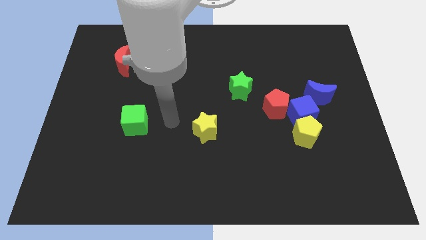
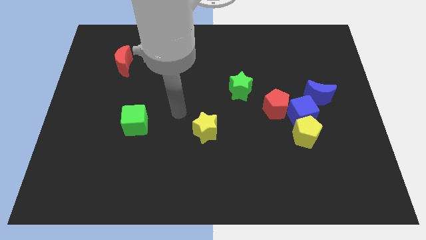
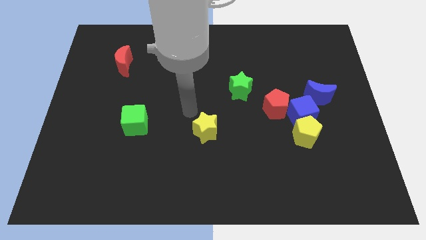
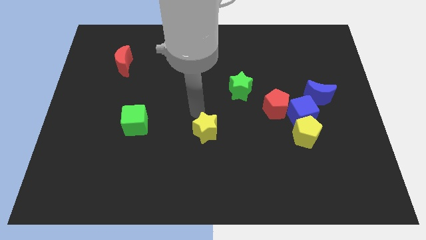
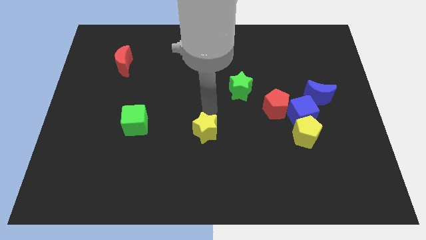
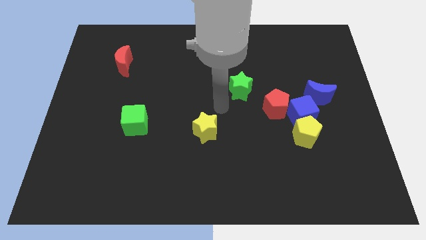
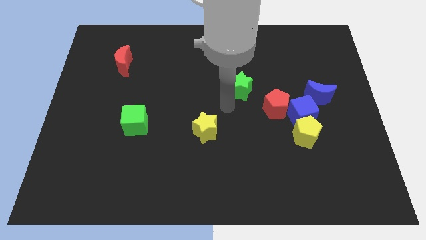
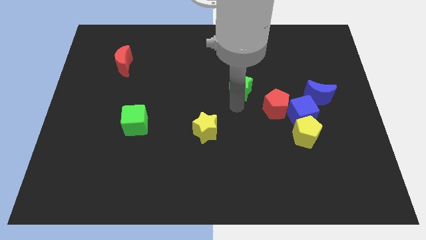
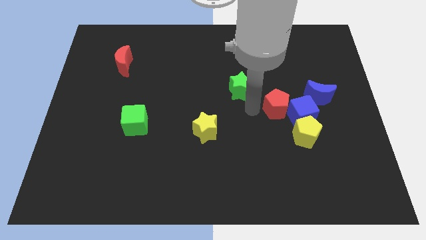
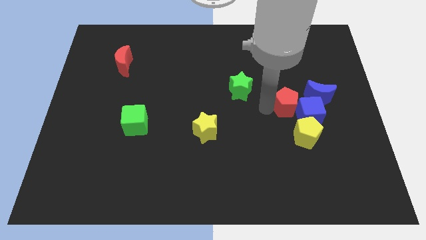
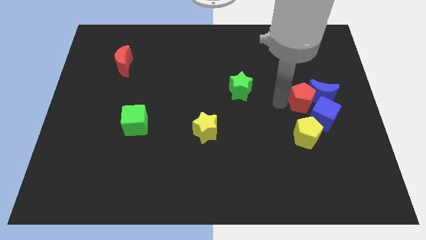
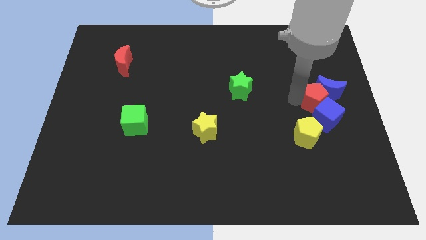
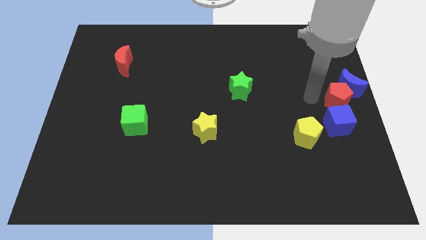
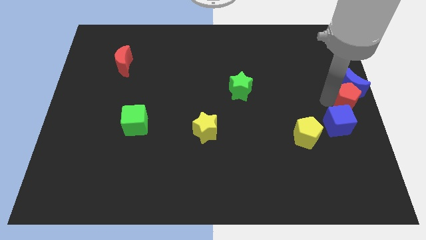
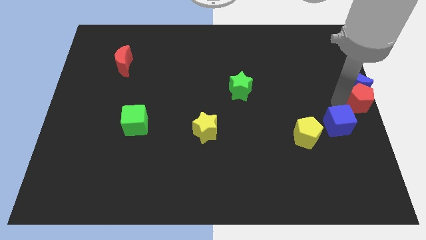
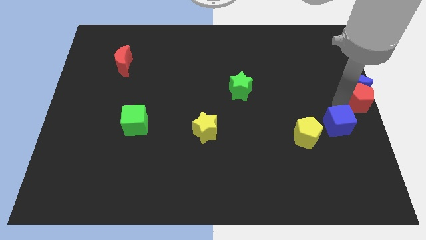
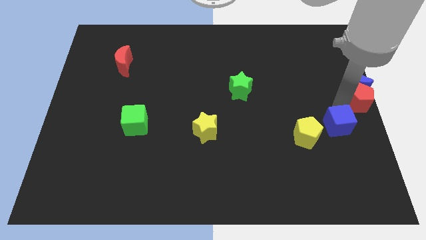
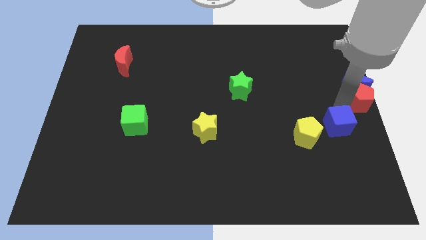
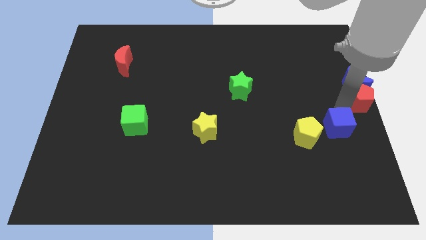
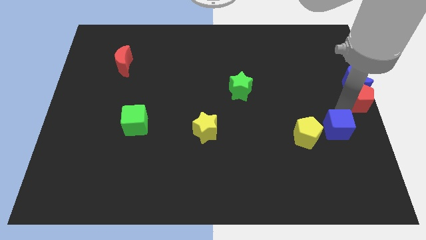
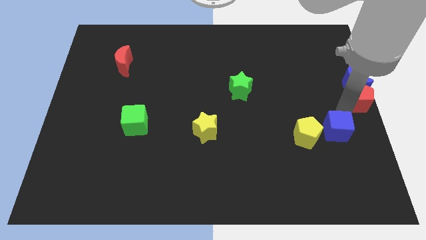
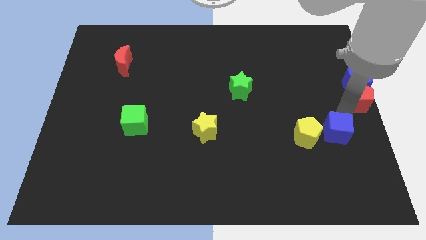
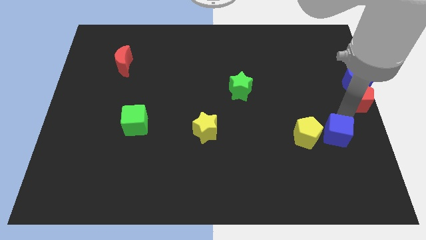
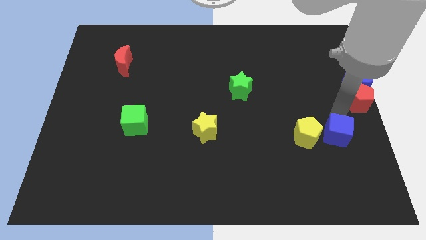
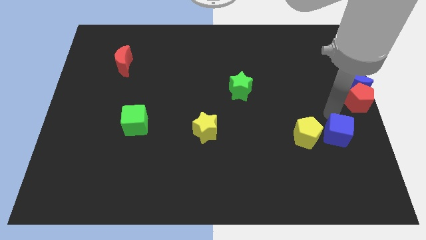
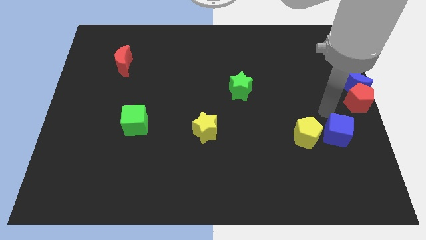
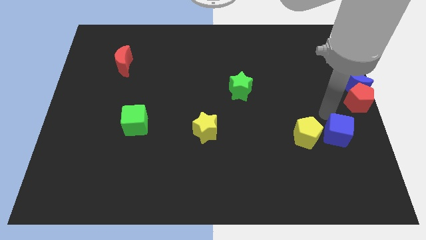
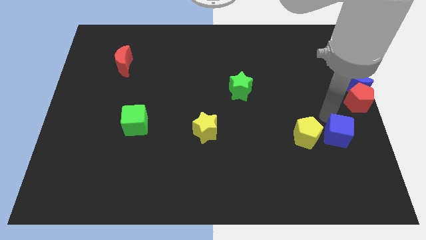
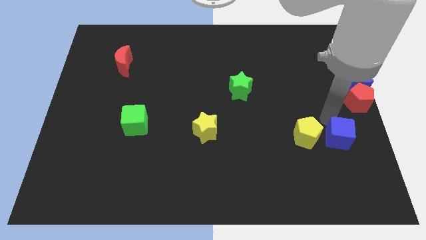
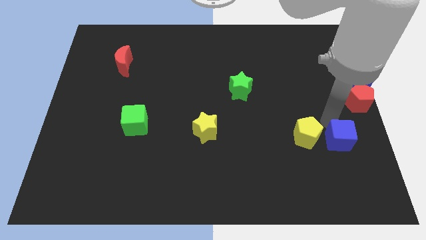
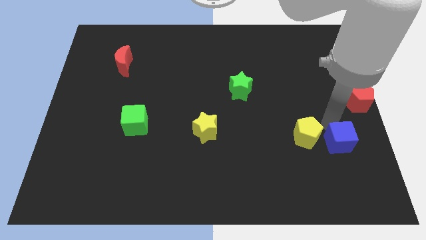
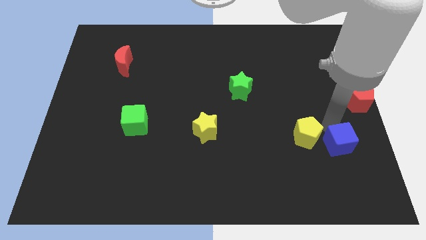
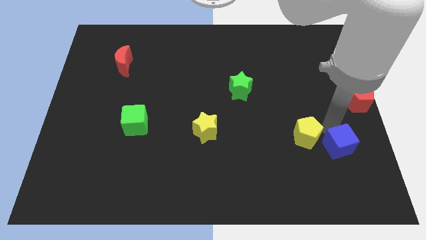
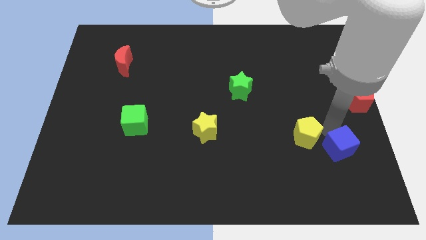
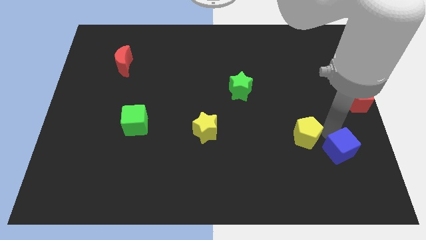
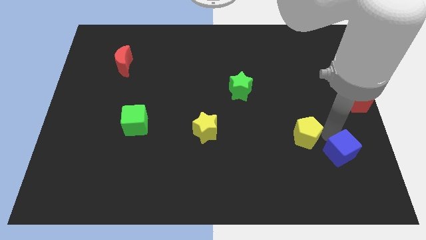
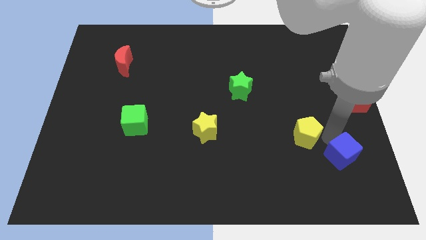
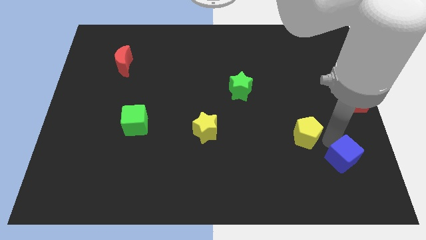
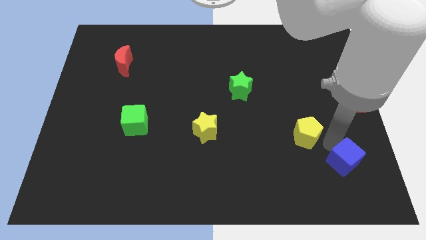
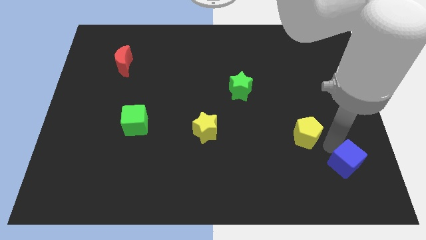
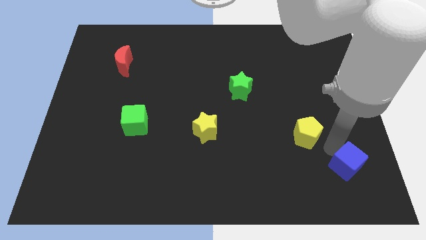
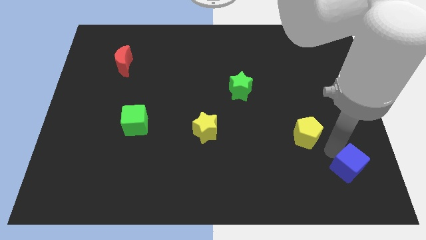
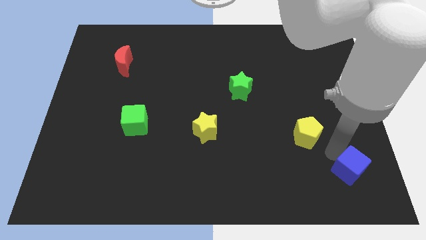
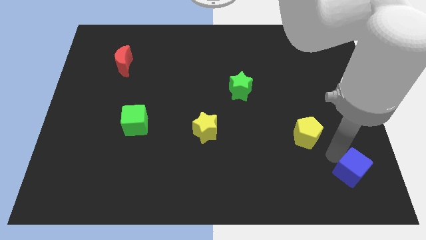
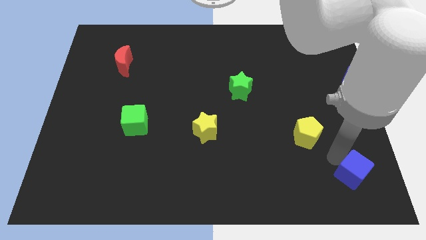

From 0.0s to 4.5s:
push the blue cube to the bottom right

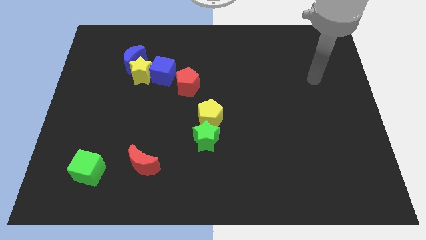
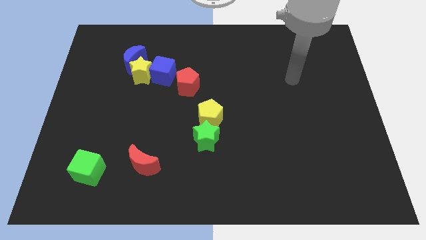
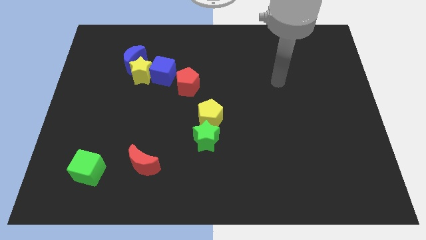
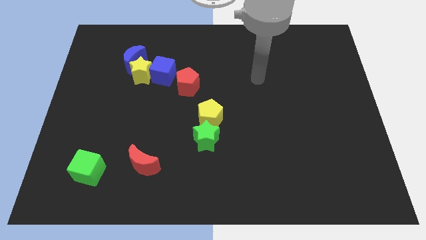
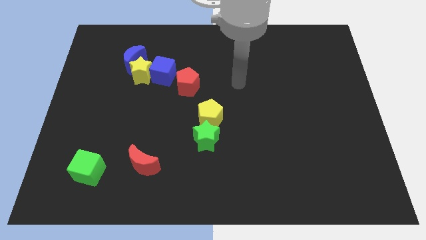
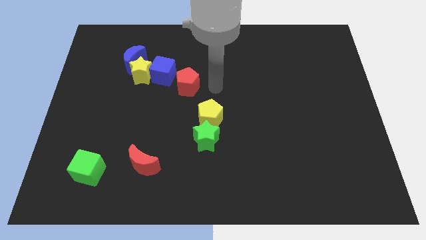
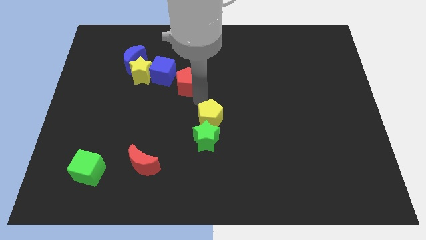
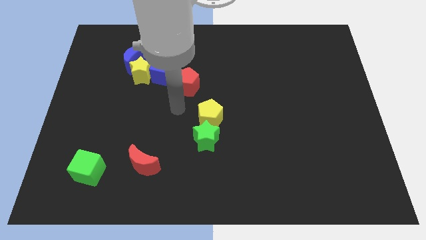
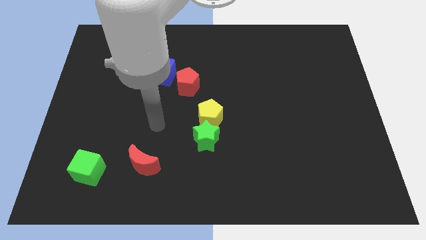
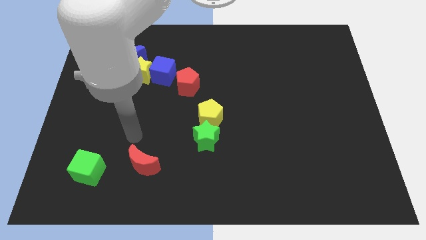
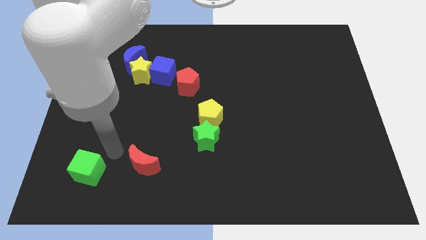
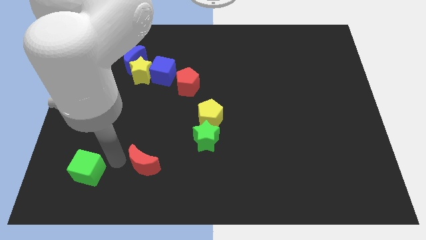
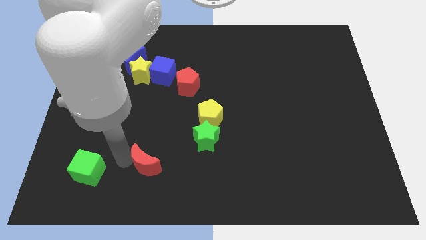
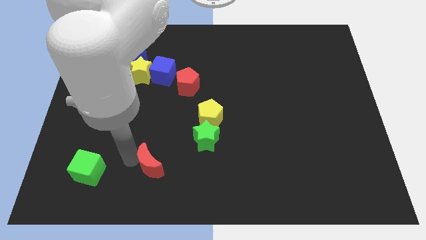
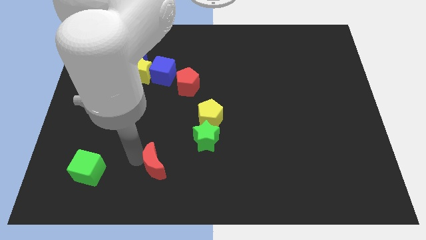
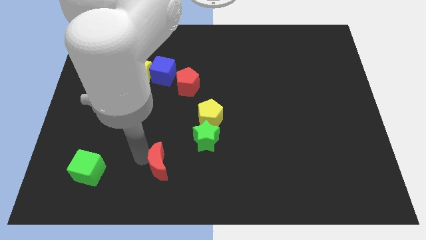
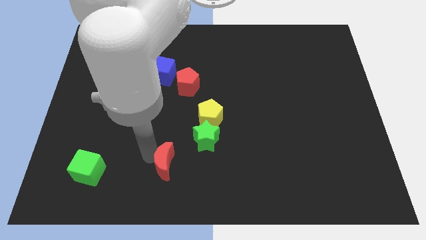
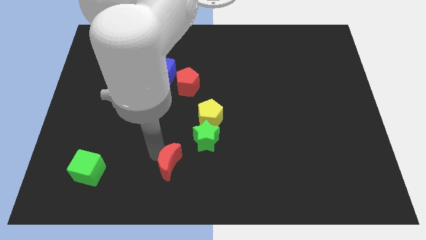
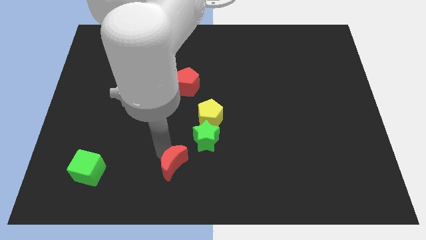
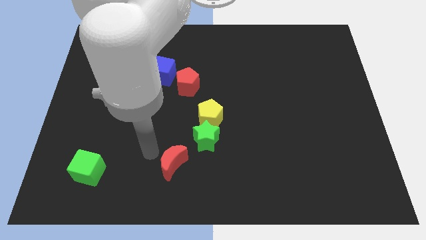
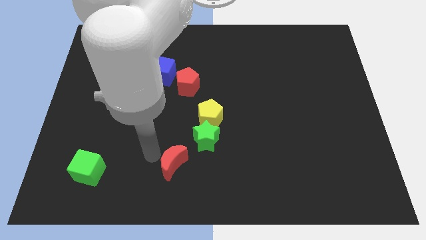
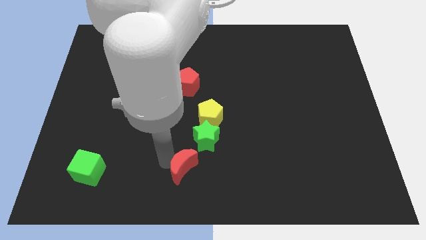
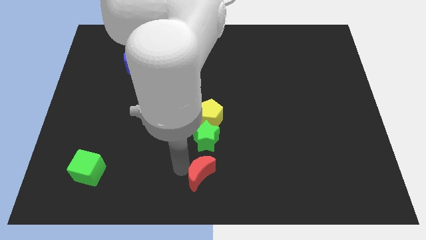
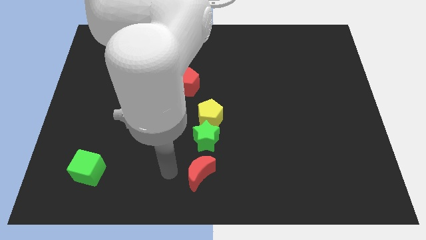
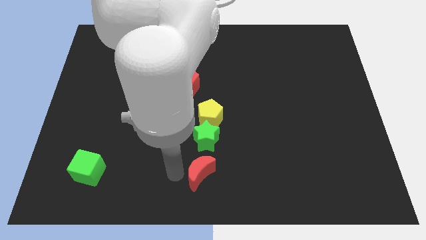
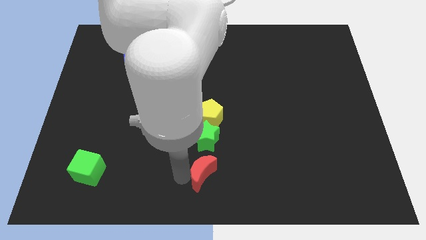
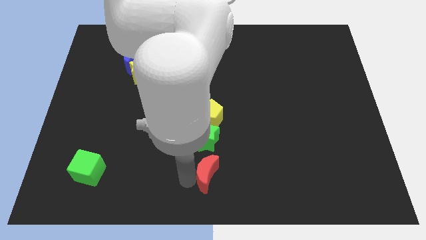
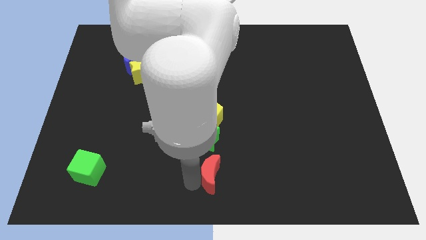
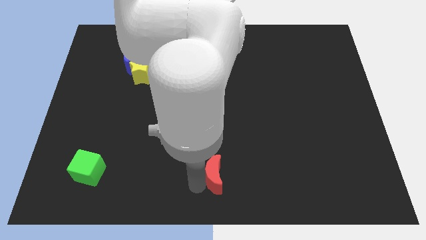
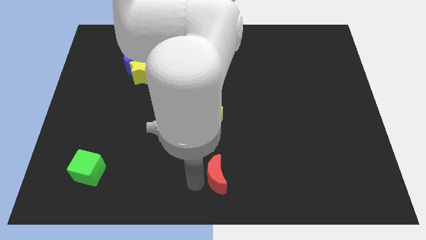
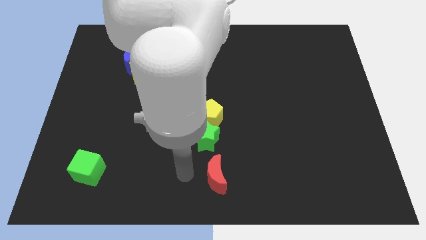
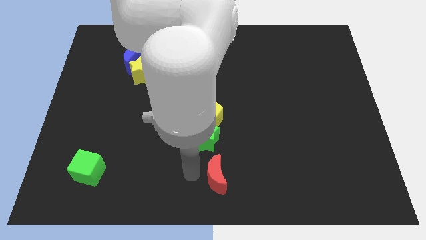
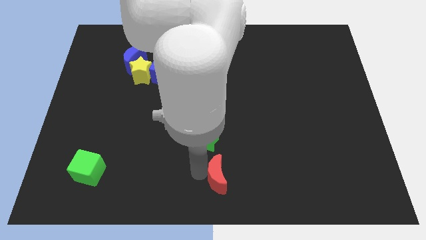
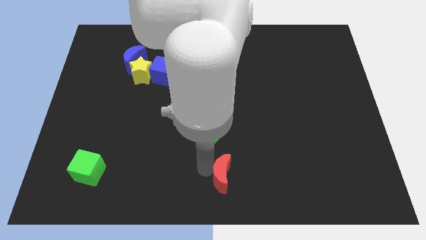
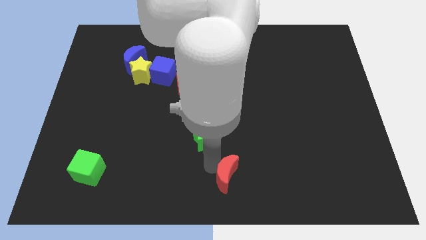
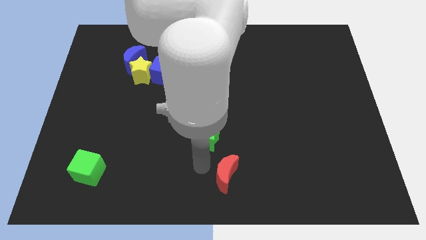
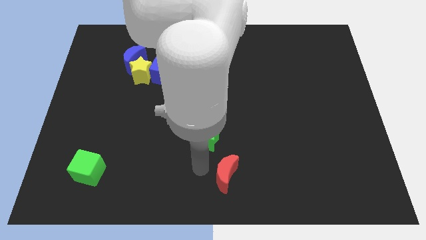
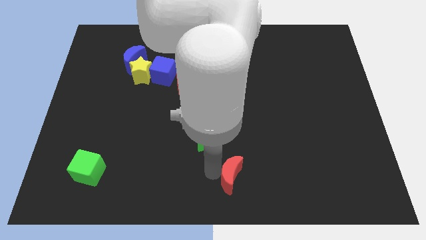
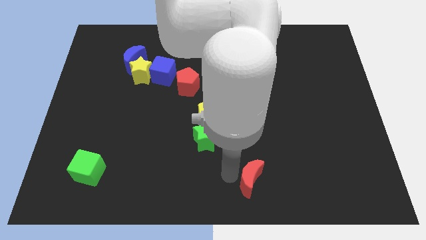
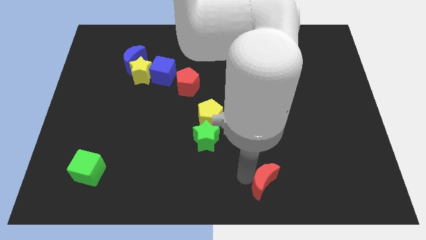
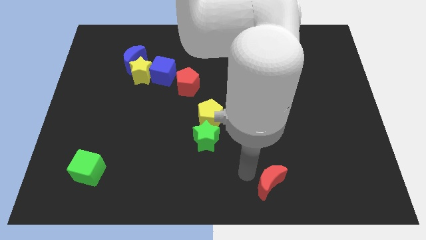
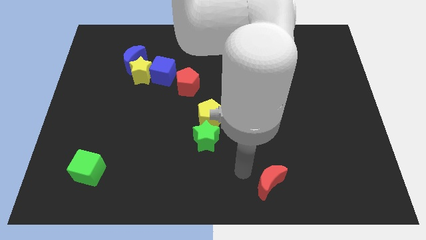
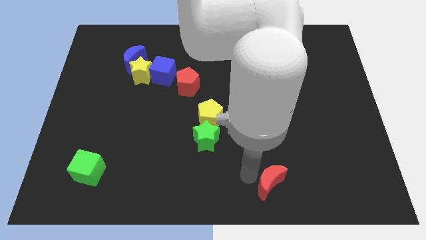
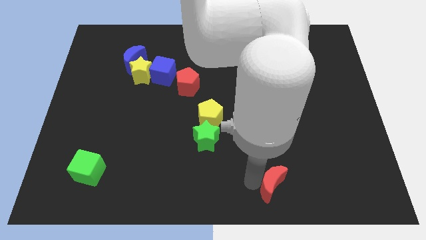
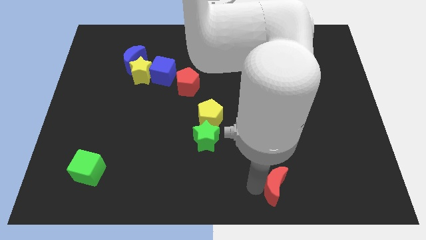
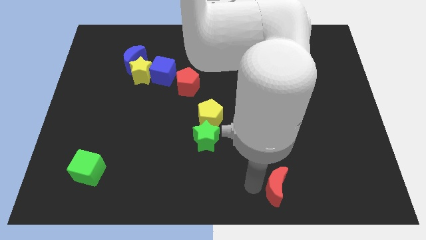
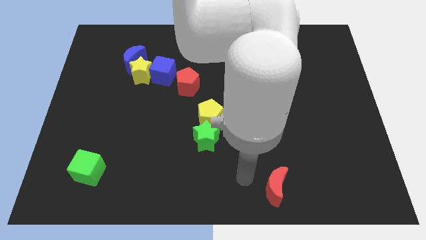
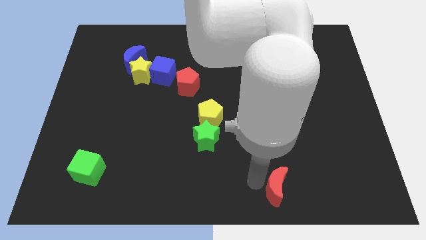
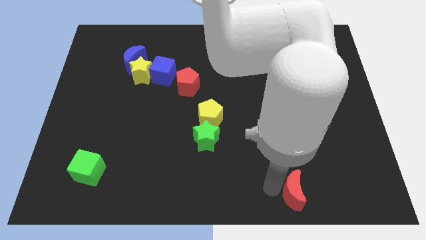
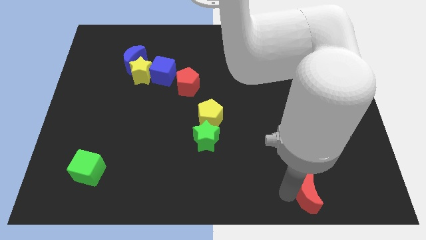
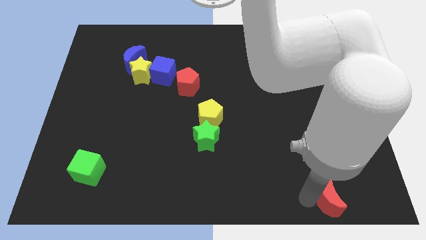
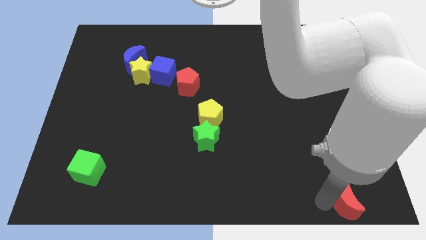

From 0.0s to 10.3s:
move the red moon to the bottom right
